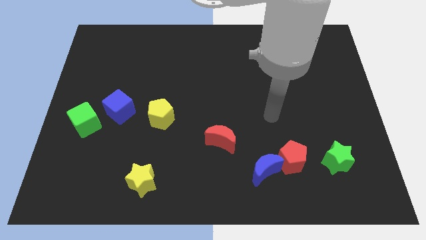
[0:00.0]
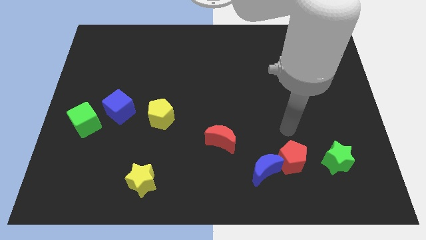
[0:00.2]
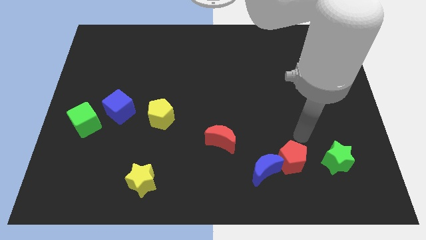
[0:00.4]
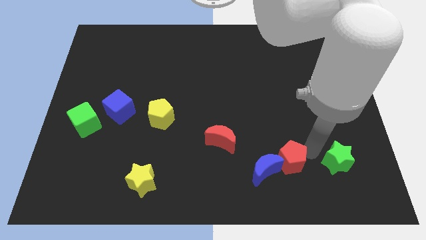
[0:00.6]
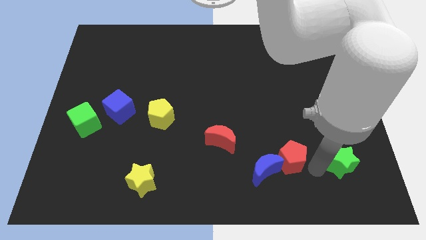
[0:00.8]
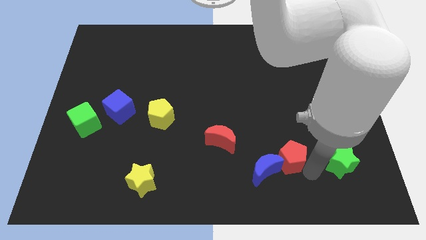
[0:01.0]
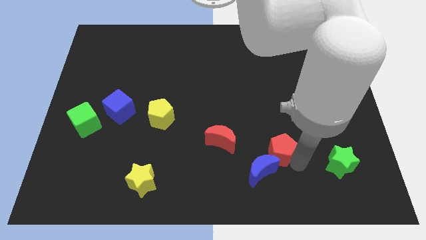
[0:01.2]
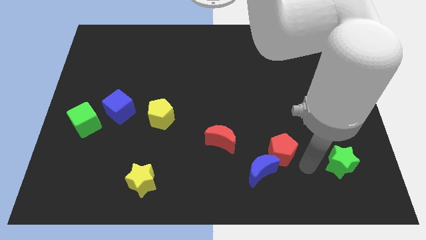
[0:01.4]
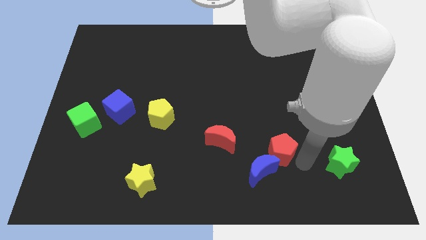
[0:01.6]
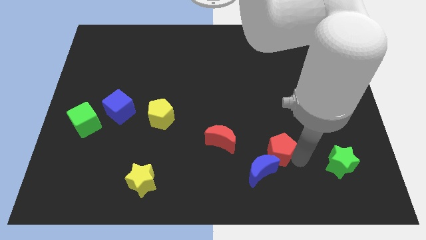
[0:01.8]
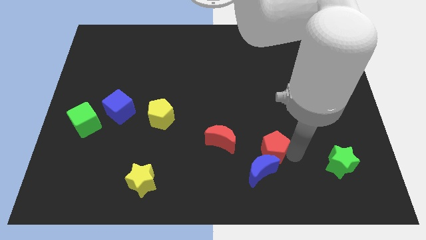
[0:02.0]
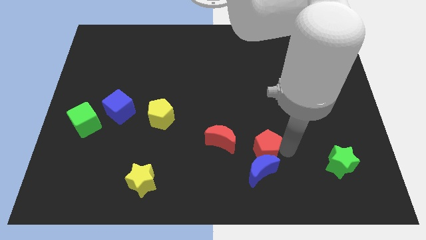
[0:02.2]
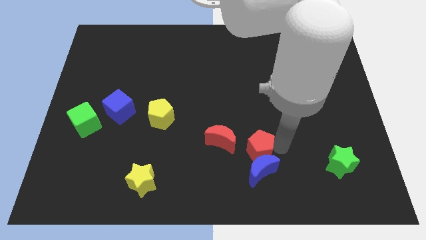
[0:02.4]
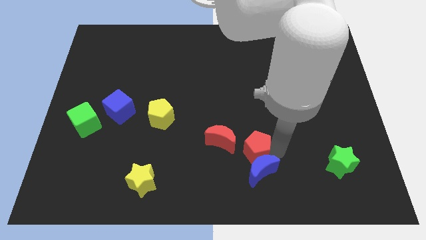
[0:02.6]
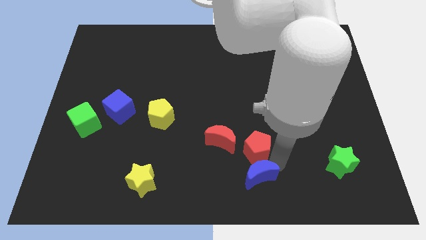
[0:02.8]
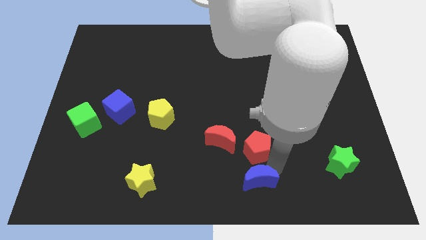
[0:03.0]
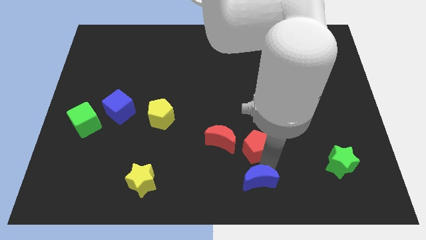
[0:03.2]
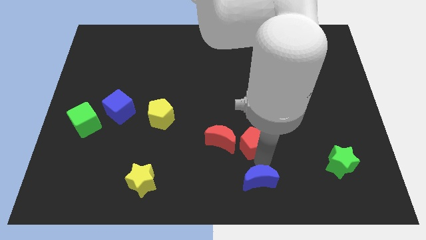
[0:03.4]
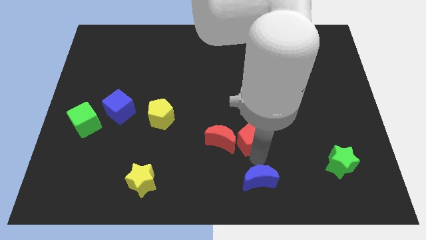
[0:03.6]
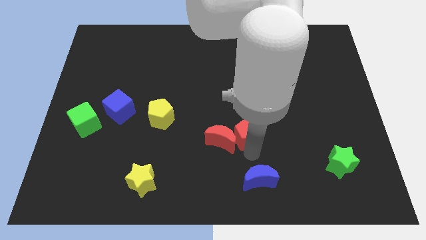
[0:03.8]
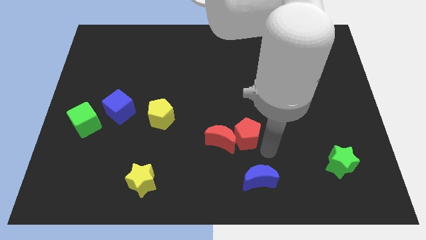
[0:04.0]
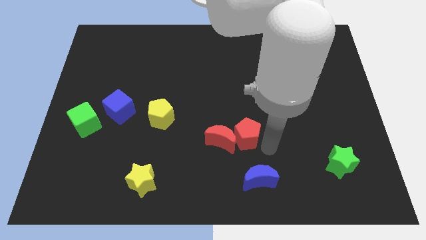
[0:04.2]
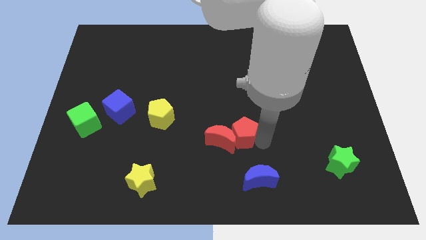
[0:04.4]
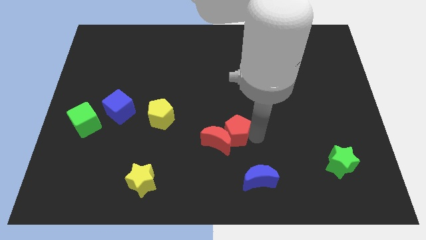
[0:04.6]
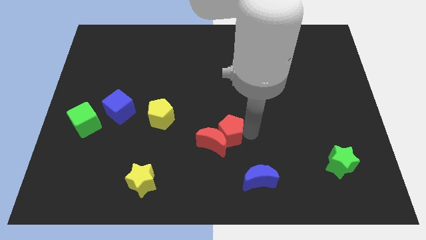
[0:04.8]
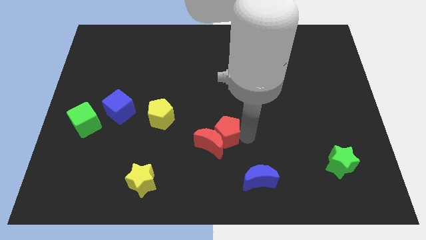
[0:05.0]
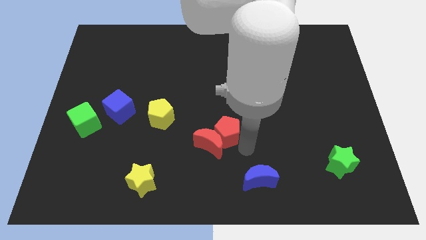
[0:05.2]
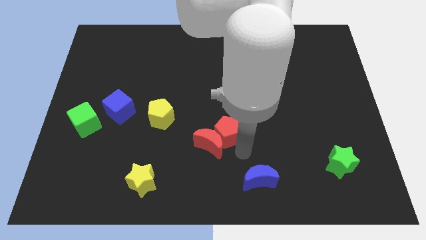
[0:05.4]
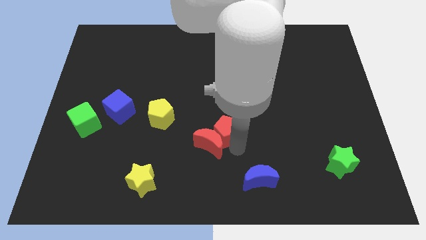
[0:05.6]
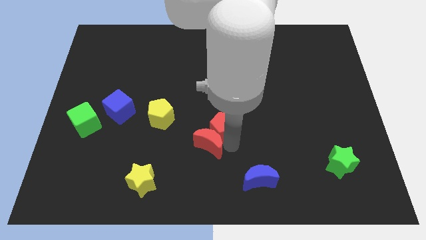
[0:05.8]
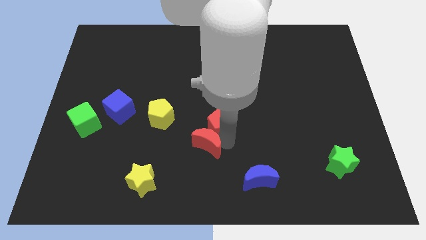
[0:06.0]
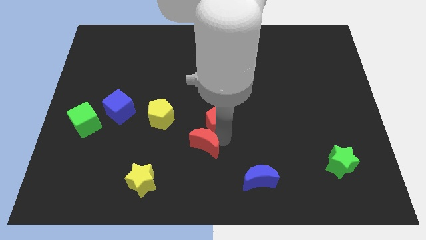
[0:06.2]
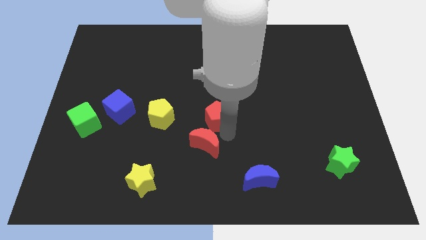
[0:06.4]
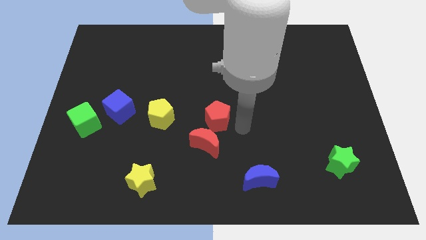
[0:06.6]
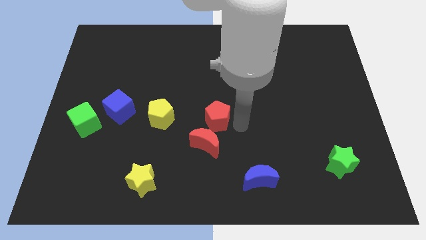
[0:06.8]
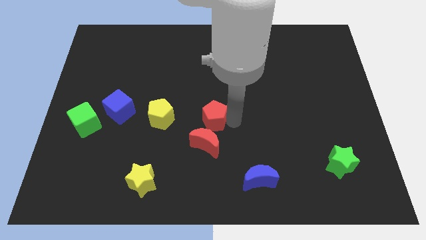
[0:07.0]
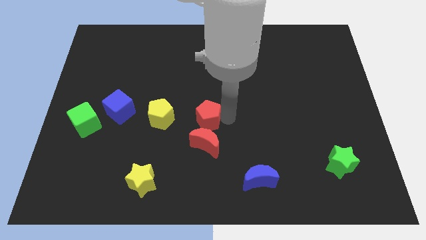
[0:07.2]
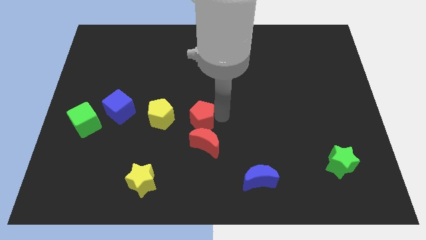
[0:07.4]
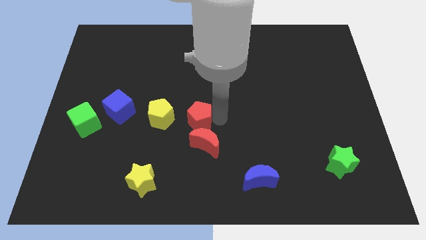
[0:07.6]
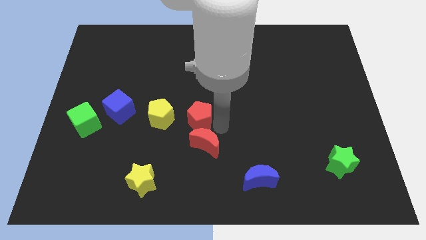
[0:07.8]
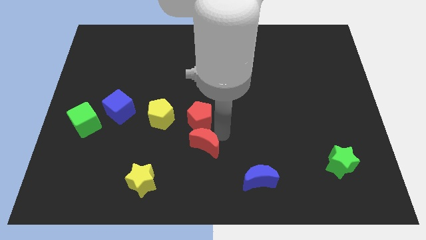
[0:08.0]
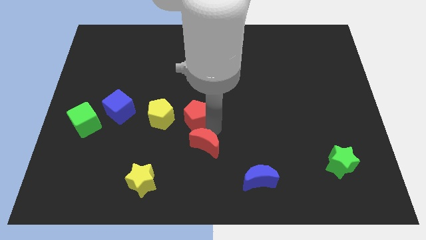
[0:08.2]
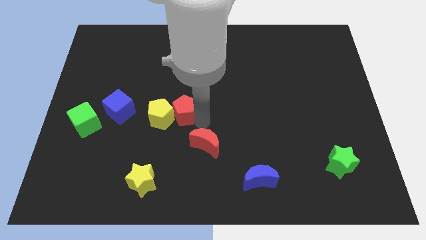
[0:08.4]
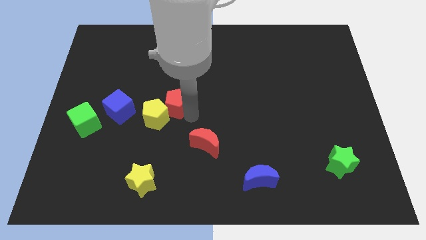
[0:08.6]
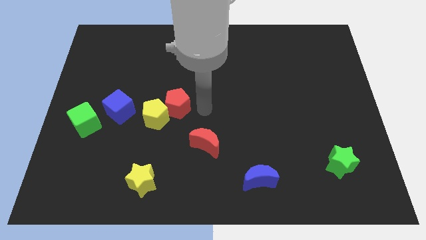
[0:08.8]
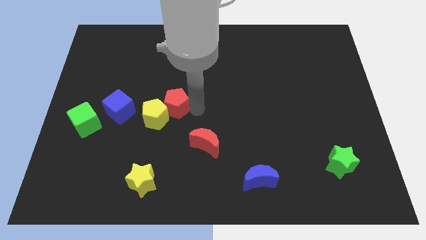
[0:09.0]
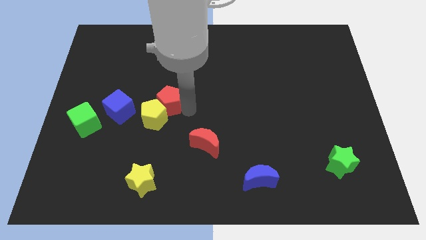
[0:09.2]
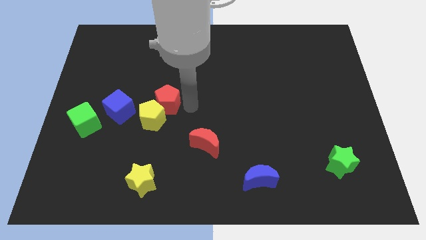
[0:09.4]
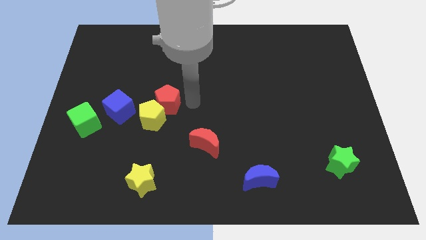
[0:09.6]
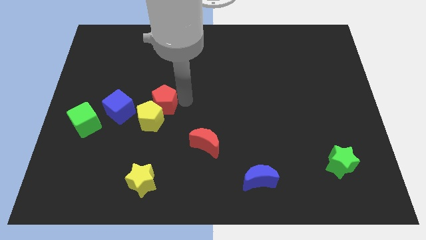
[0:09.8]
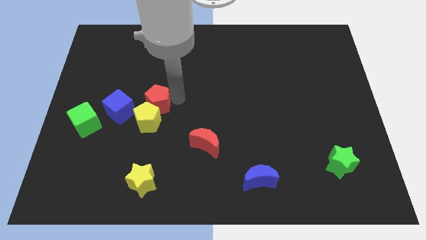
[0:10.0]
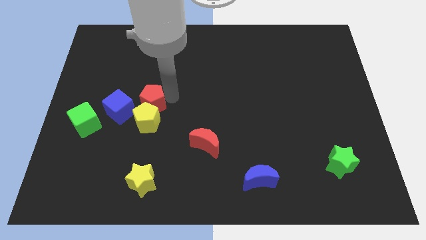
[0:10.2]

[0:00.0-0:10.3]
slide the red pentagon diagonally up and to the left of the yellow pentagon

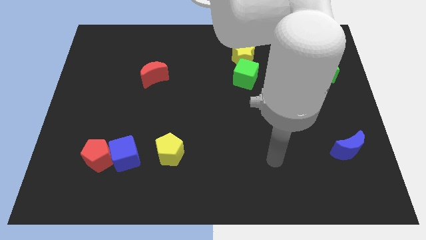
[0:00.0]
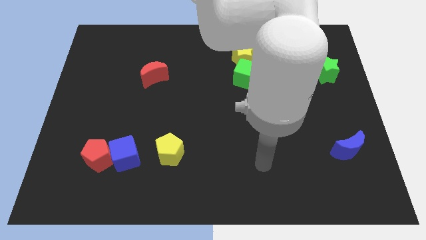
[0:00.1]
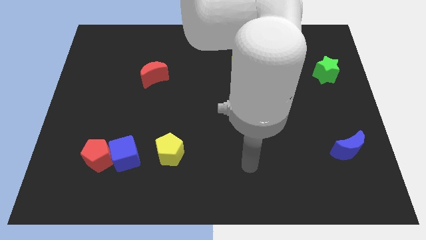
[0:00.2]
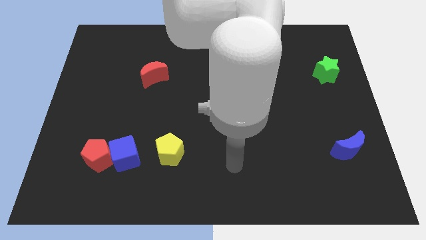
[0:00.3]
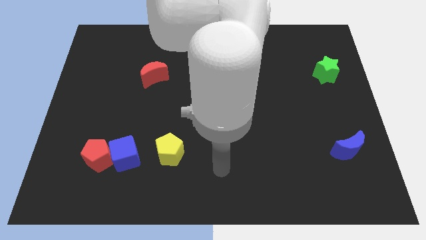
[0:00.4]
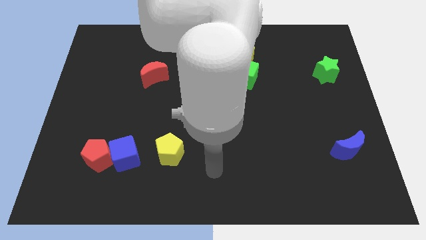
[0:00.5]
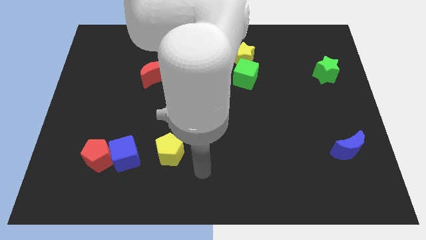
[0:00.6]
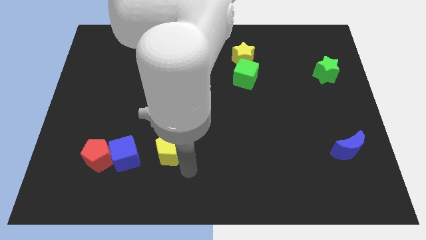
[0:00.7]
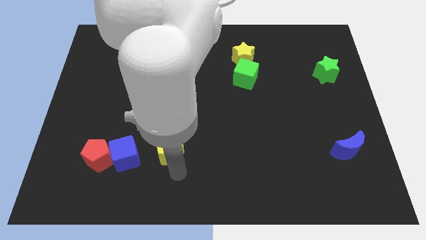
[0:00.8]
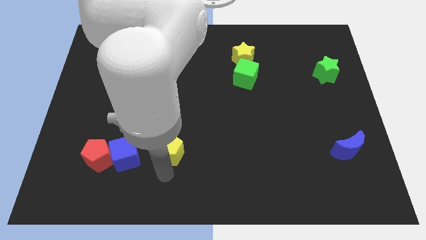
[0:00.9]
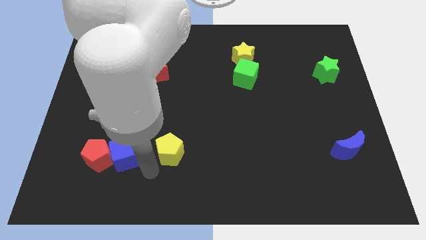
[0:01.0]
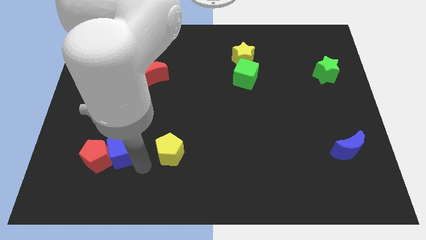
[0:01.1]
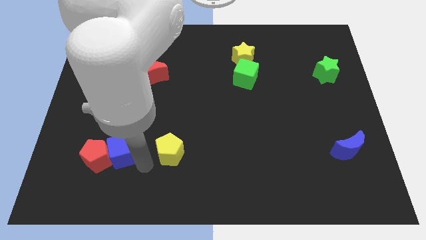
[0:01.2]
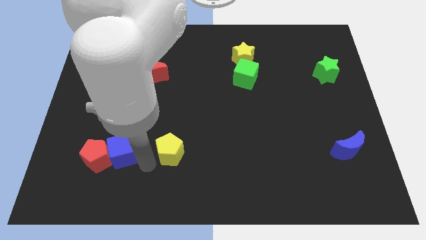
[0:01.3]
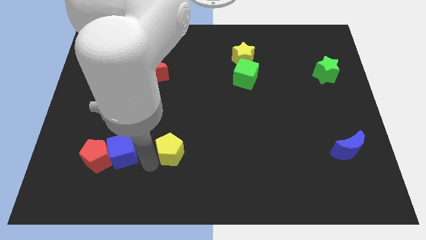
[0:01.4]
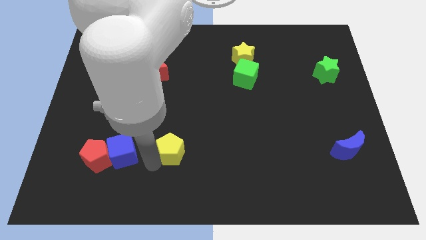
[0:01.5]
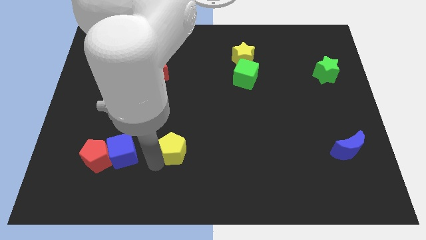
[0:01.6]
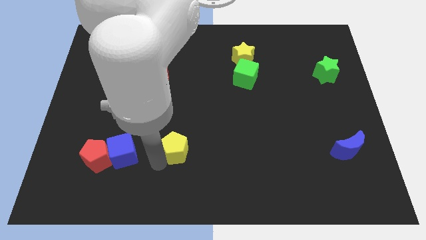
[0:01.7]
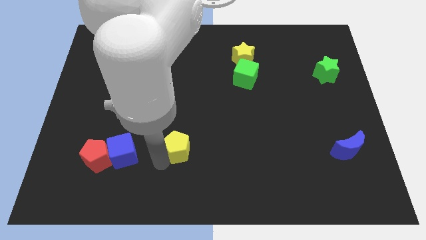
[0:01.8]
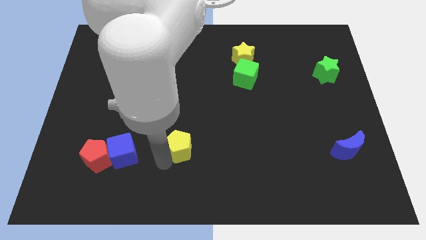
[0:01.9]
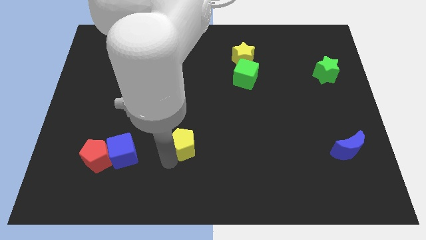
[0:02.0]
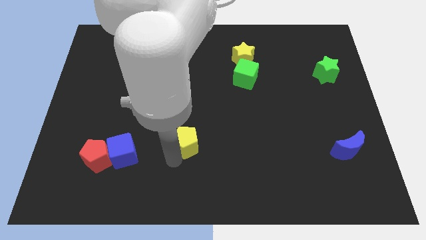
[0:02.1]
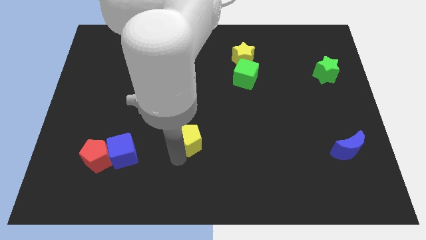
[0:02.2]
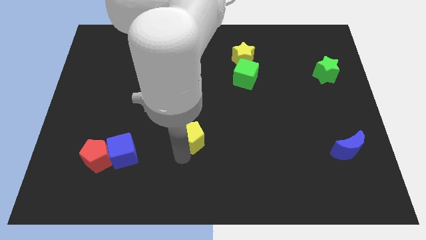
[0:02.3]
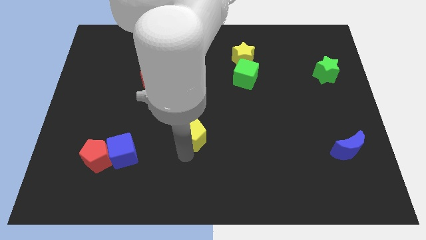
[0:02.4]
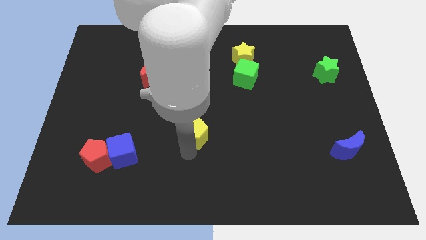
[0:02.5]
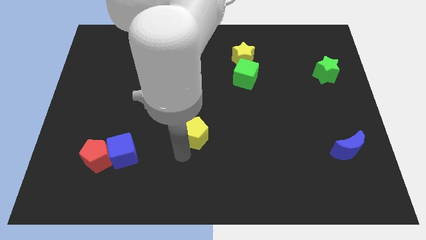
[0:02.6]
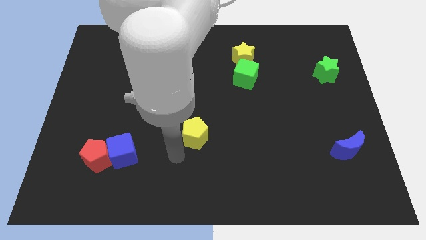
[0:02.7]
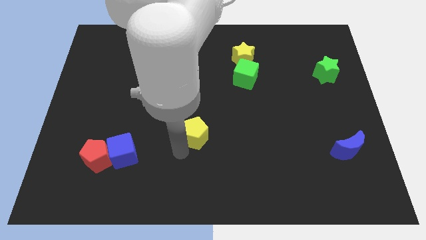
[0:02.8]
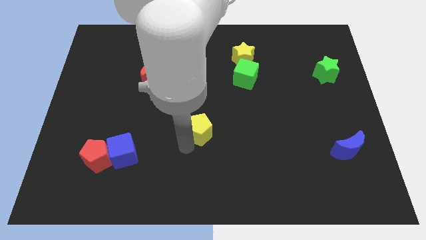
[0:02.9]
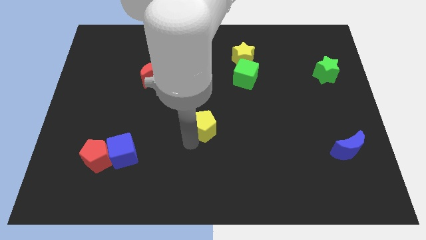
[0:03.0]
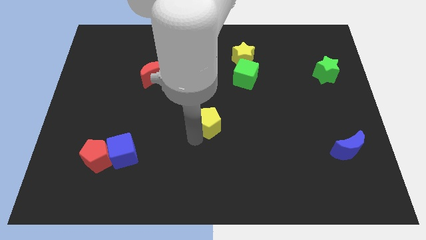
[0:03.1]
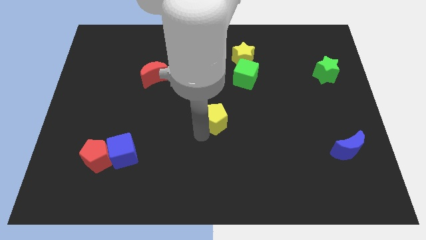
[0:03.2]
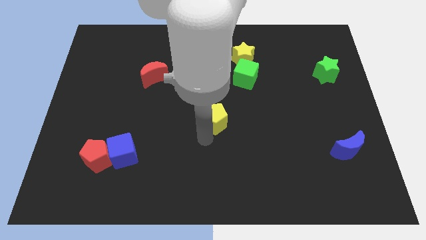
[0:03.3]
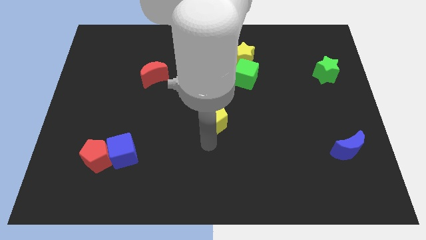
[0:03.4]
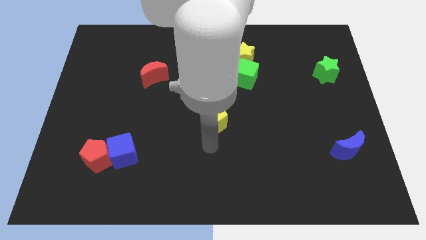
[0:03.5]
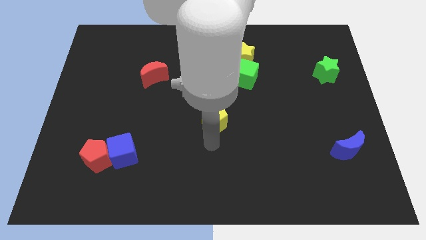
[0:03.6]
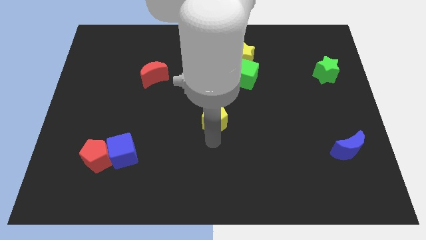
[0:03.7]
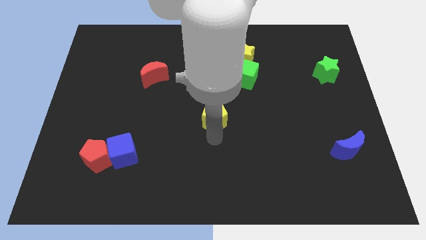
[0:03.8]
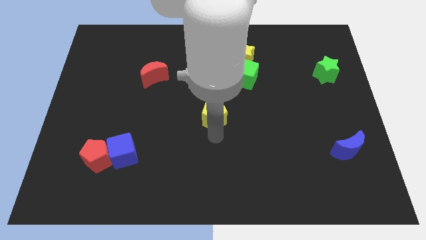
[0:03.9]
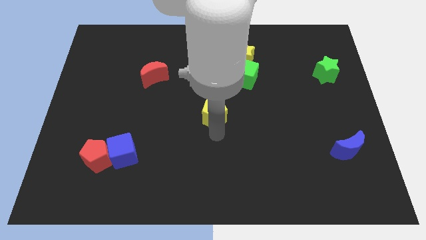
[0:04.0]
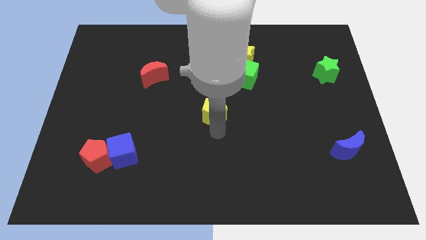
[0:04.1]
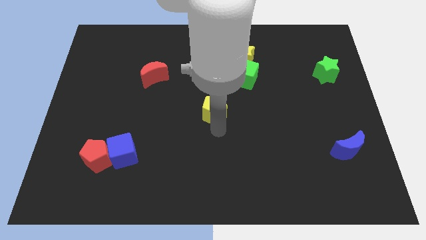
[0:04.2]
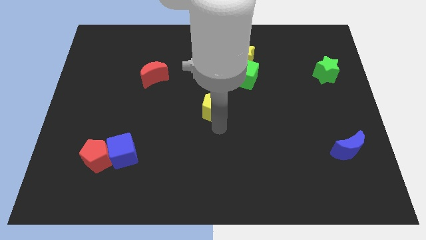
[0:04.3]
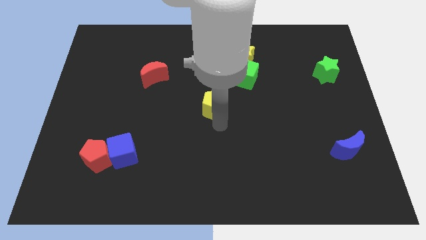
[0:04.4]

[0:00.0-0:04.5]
push the yellow pentagon to the bottom left side of the green cube
